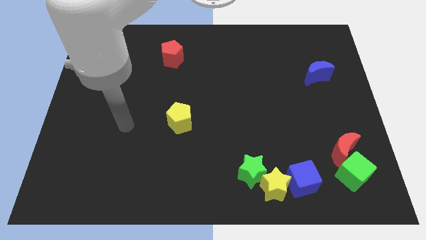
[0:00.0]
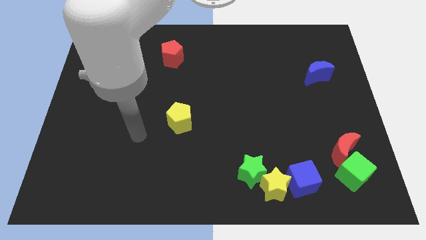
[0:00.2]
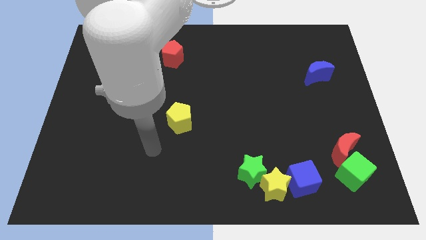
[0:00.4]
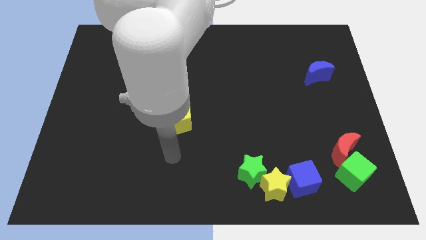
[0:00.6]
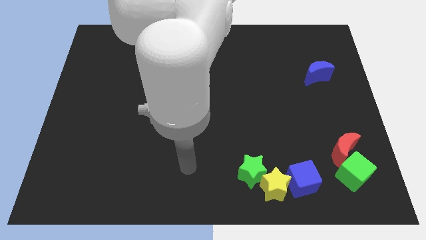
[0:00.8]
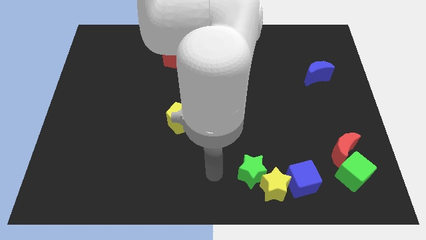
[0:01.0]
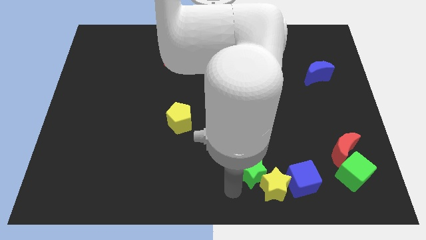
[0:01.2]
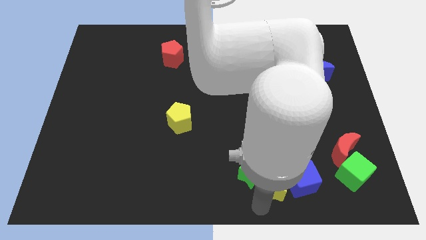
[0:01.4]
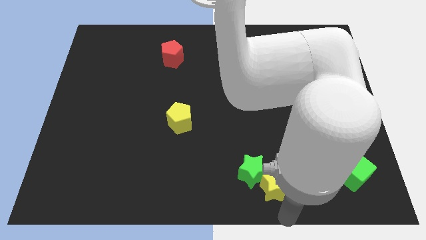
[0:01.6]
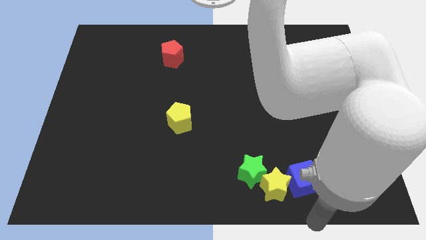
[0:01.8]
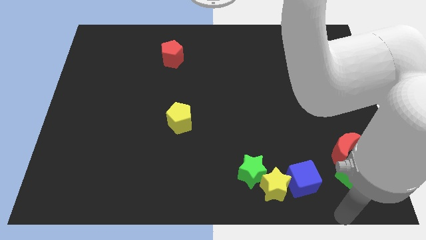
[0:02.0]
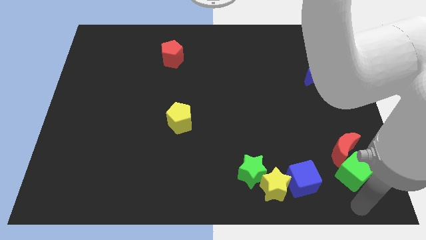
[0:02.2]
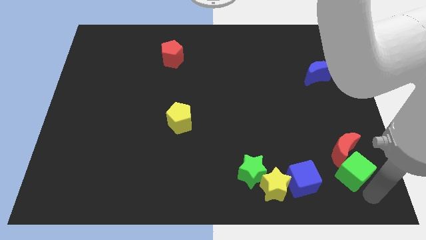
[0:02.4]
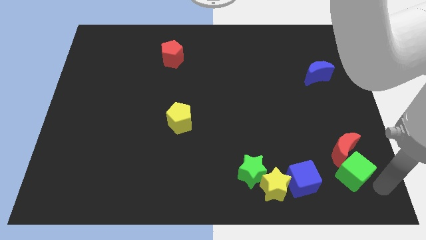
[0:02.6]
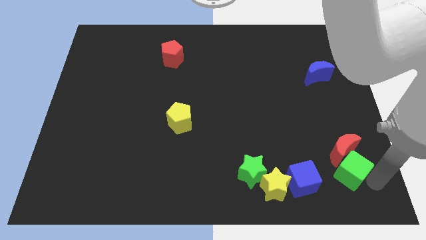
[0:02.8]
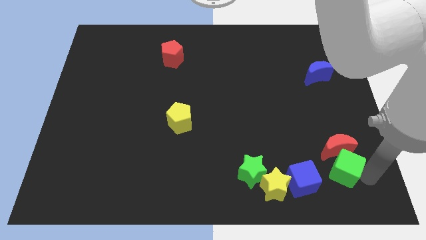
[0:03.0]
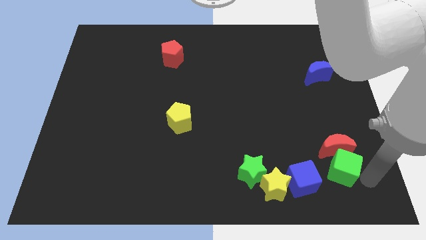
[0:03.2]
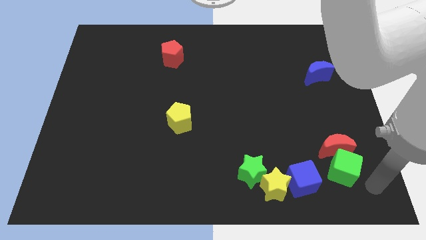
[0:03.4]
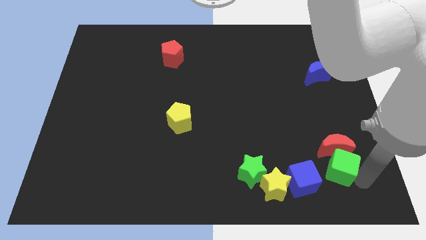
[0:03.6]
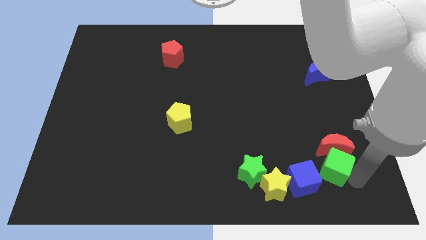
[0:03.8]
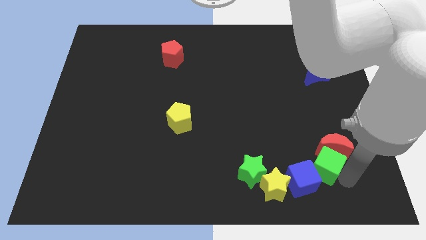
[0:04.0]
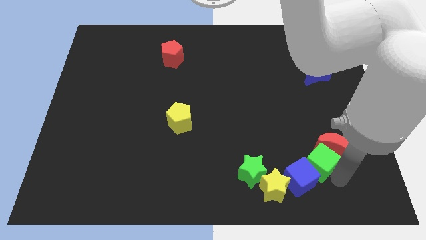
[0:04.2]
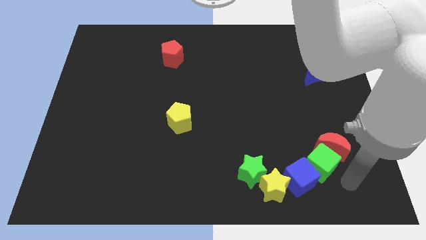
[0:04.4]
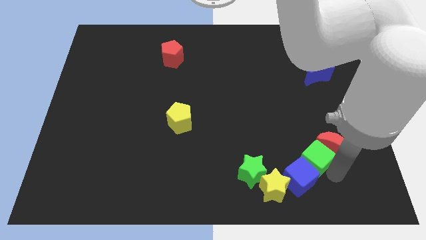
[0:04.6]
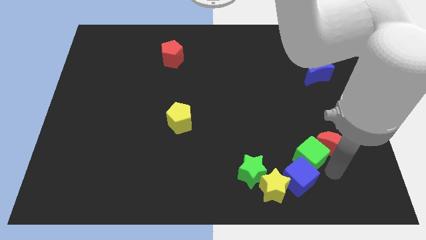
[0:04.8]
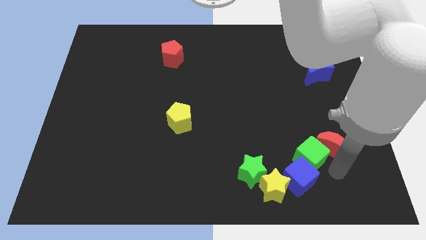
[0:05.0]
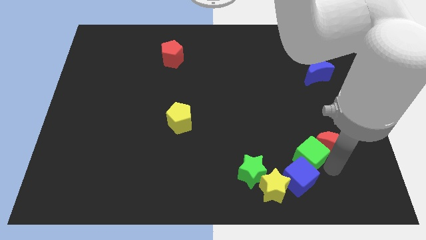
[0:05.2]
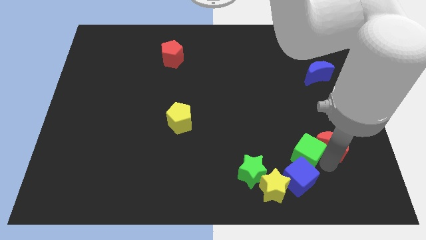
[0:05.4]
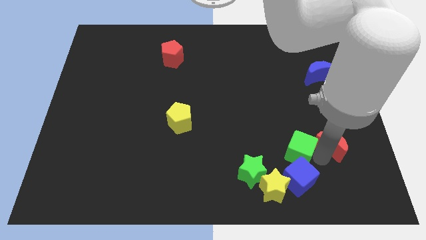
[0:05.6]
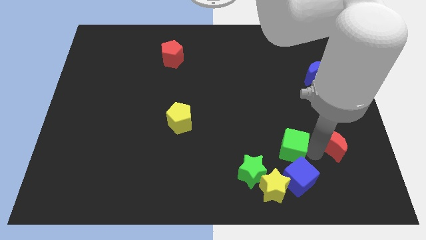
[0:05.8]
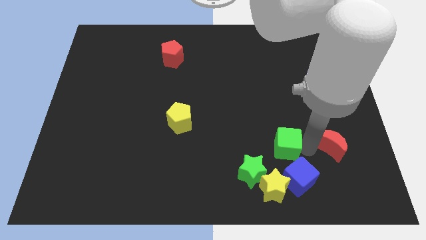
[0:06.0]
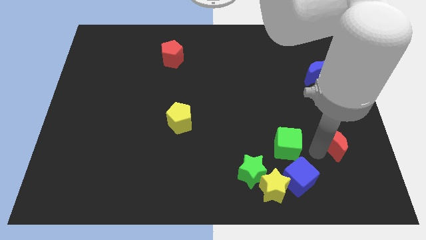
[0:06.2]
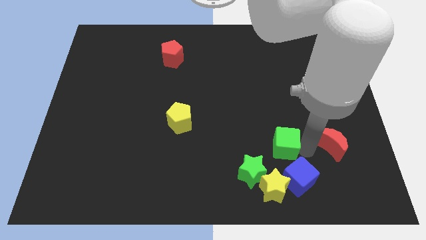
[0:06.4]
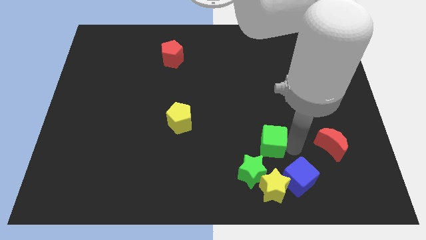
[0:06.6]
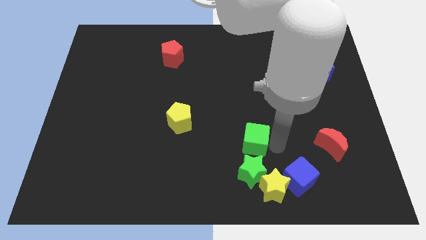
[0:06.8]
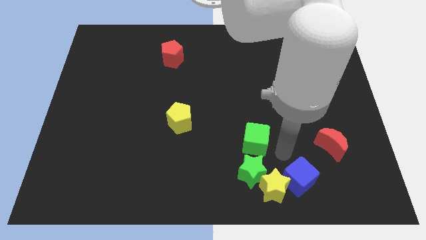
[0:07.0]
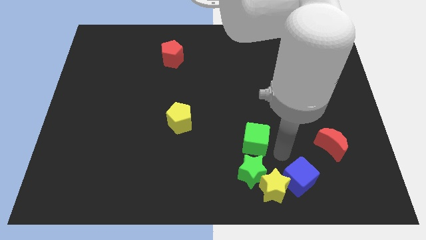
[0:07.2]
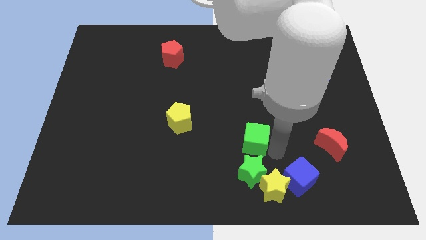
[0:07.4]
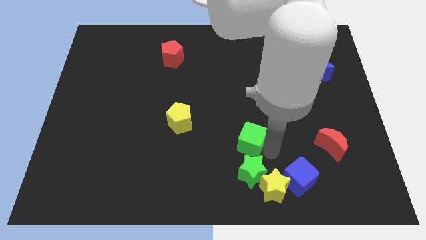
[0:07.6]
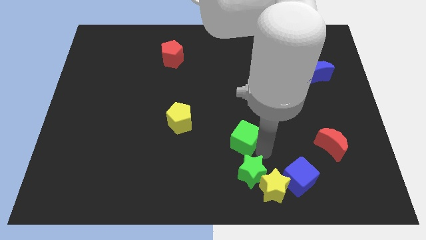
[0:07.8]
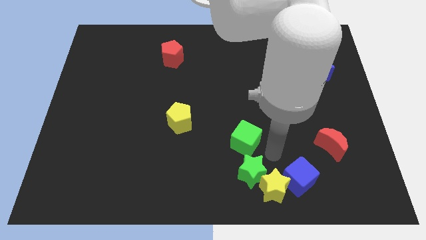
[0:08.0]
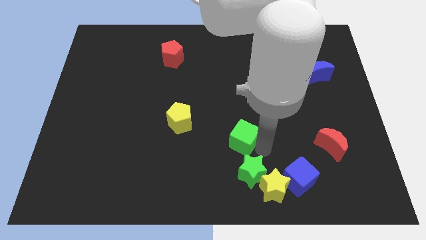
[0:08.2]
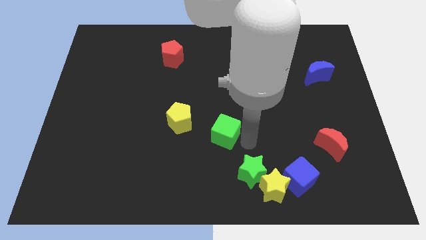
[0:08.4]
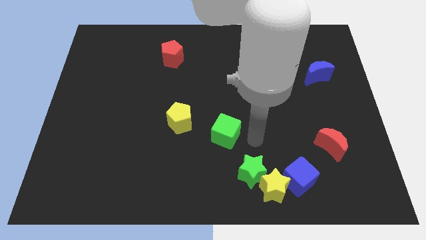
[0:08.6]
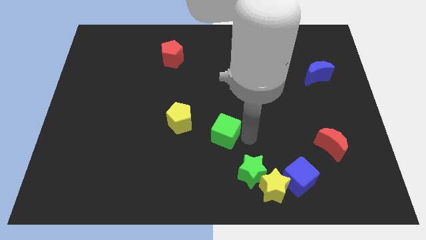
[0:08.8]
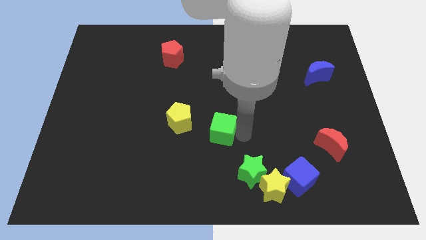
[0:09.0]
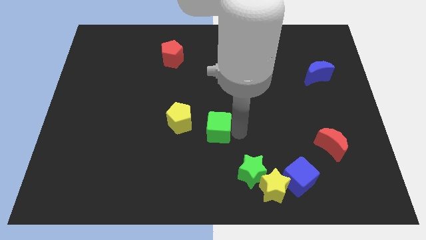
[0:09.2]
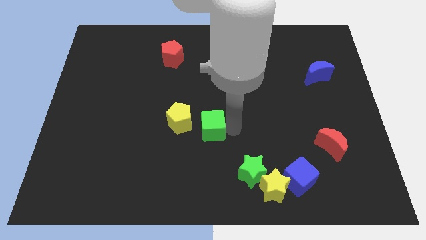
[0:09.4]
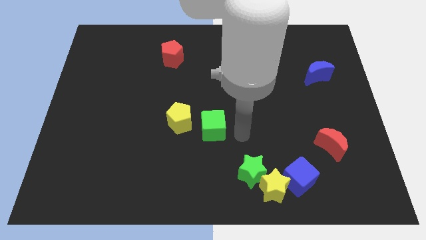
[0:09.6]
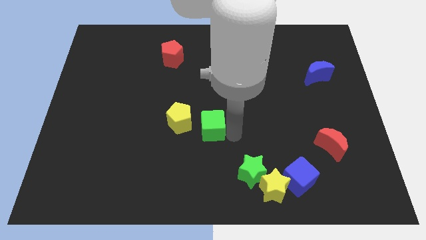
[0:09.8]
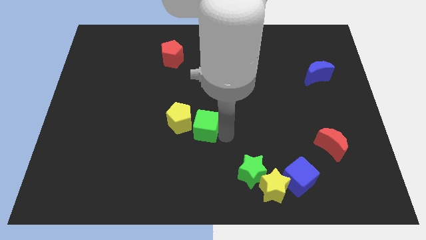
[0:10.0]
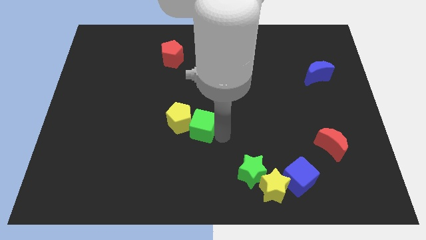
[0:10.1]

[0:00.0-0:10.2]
move the green cube towards the yellow pentagon

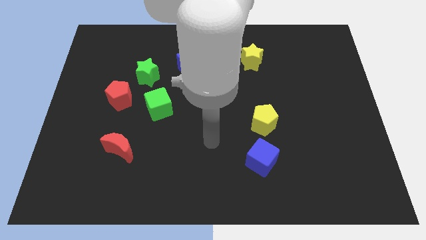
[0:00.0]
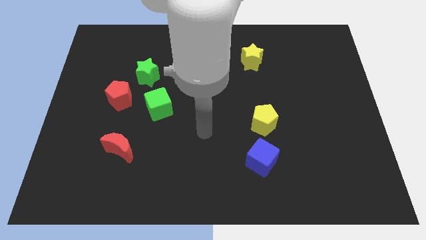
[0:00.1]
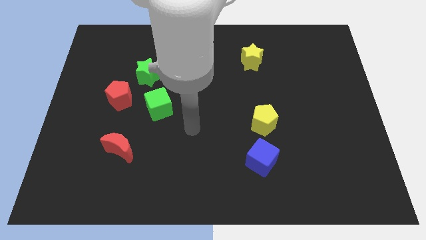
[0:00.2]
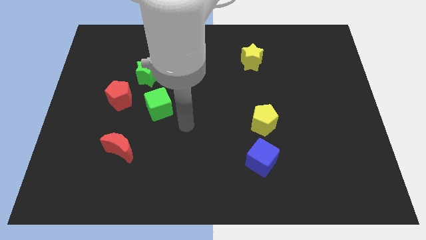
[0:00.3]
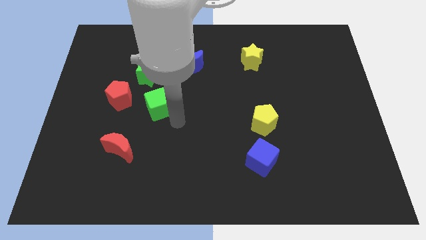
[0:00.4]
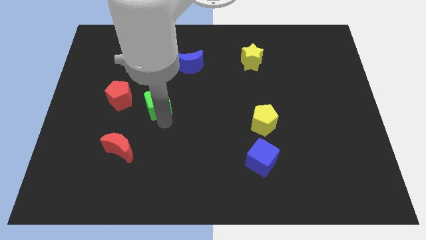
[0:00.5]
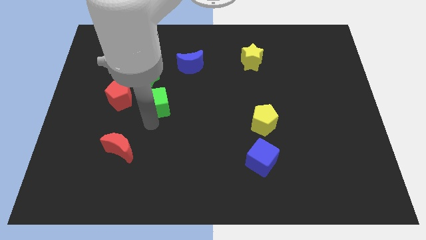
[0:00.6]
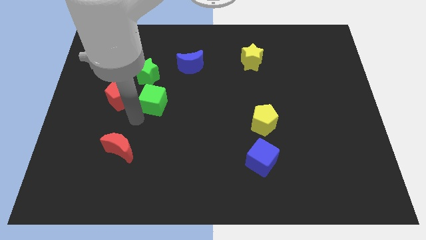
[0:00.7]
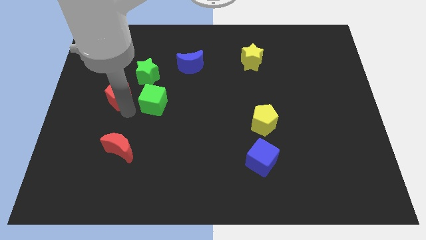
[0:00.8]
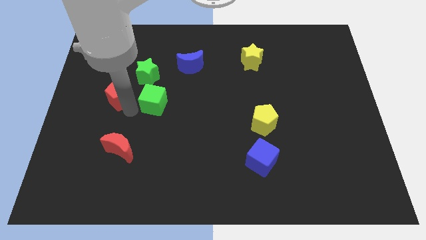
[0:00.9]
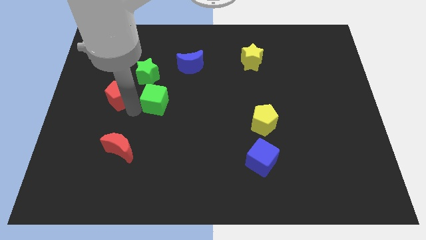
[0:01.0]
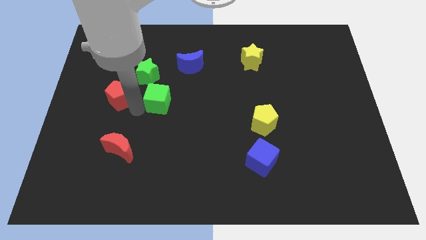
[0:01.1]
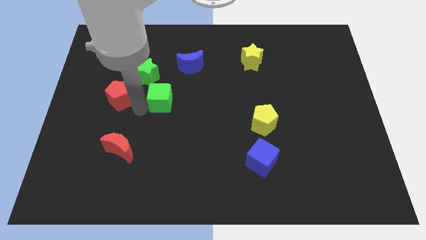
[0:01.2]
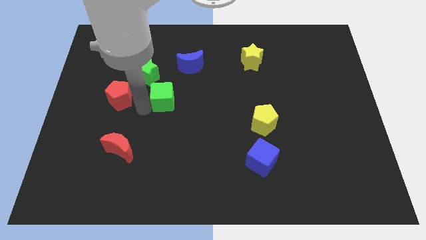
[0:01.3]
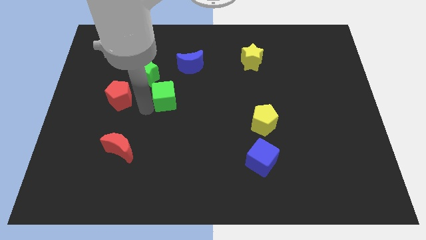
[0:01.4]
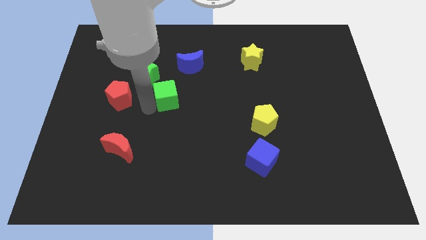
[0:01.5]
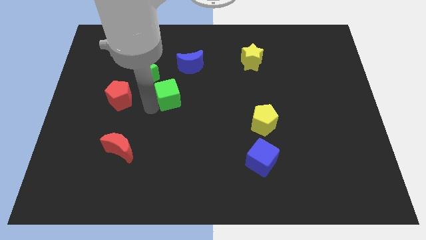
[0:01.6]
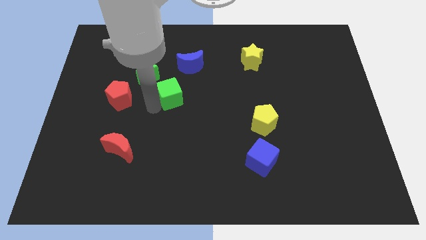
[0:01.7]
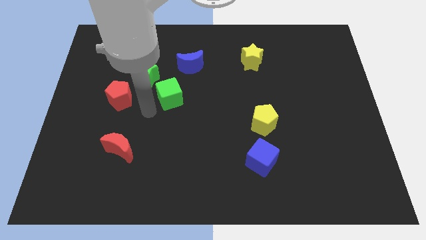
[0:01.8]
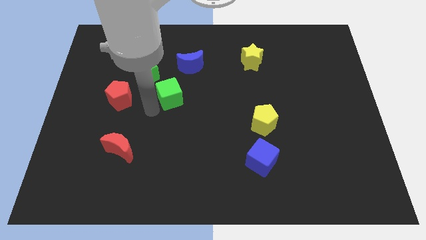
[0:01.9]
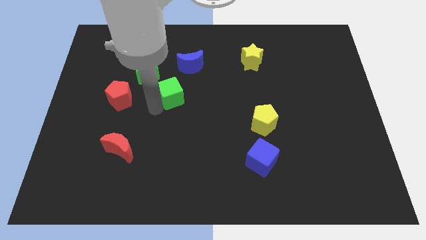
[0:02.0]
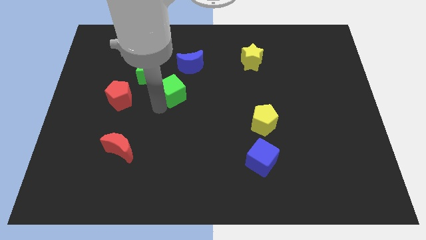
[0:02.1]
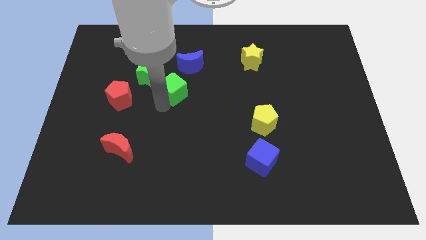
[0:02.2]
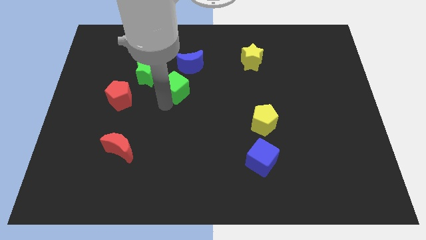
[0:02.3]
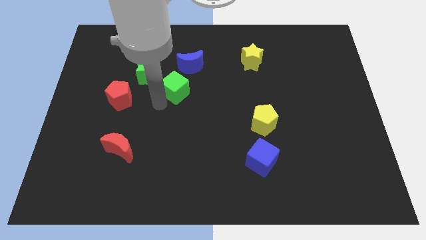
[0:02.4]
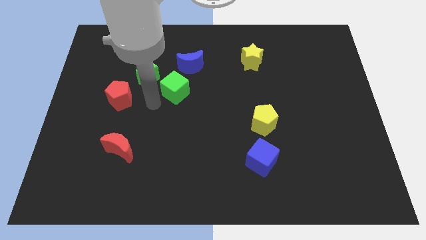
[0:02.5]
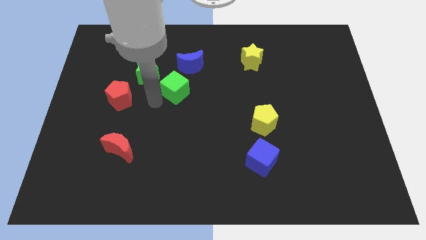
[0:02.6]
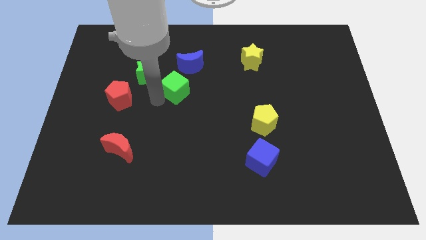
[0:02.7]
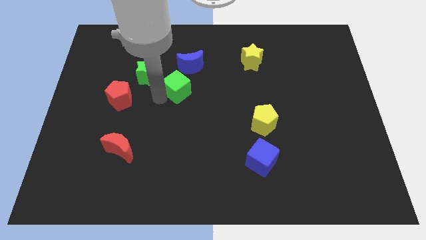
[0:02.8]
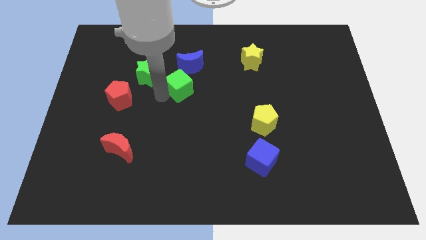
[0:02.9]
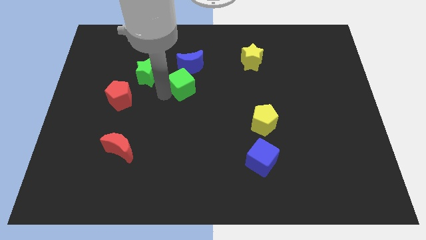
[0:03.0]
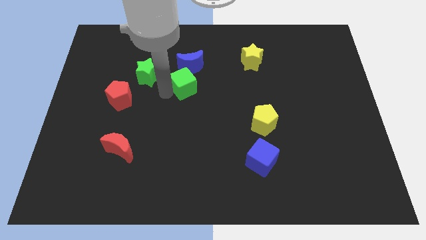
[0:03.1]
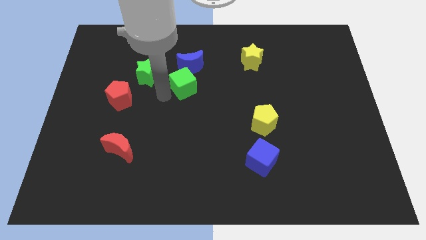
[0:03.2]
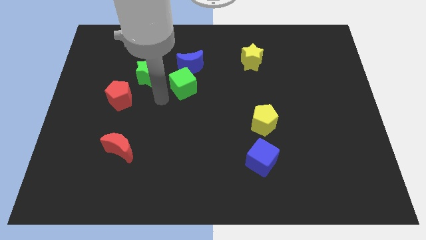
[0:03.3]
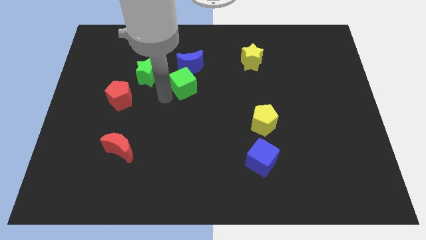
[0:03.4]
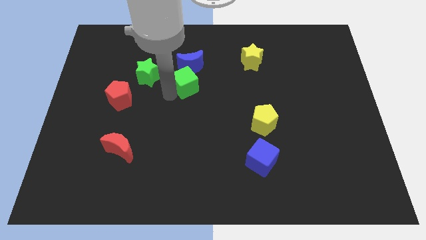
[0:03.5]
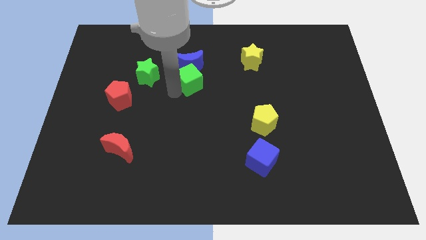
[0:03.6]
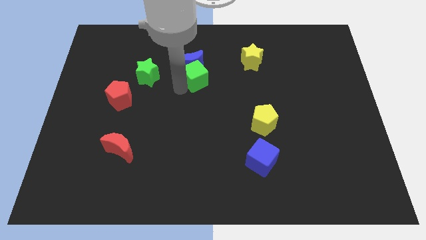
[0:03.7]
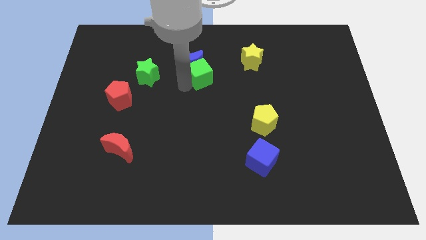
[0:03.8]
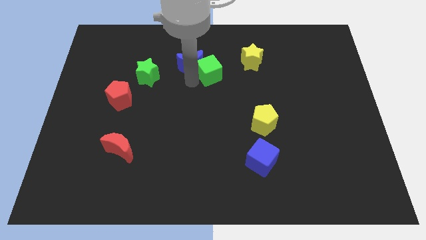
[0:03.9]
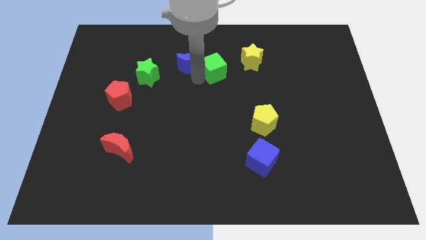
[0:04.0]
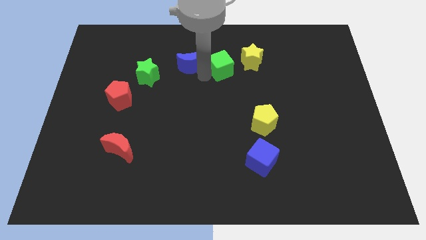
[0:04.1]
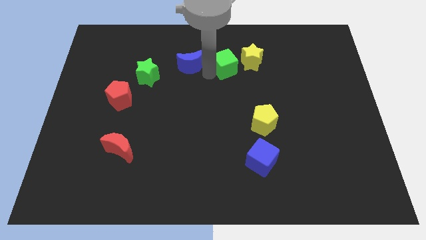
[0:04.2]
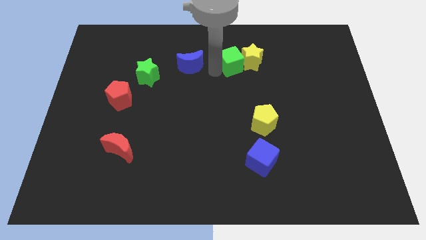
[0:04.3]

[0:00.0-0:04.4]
push the green cube towards the yellow star
